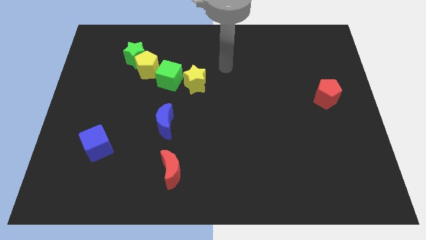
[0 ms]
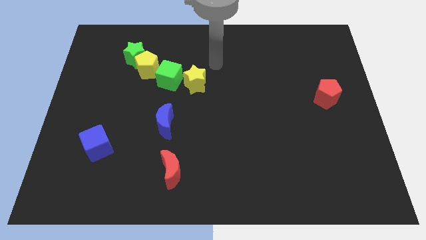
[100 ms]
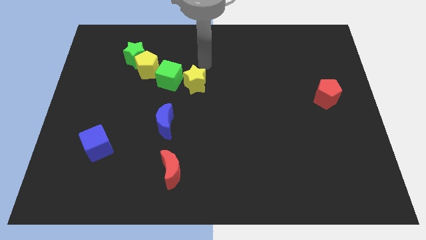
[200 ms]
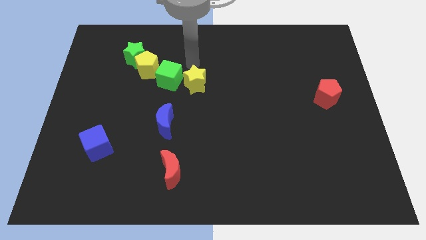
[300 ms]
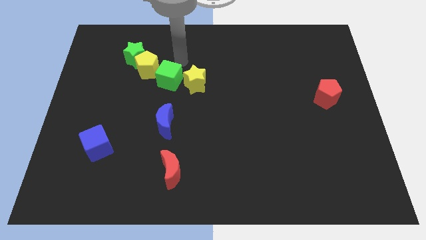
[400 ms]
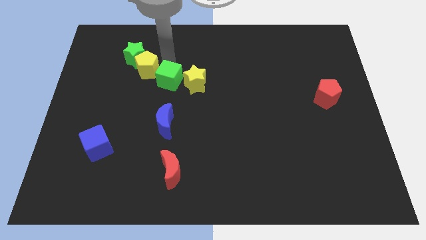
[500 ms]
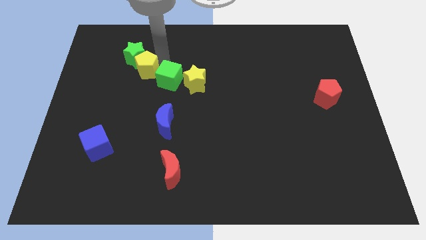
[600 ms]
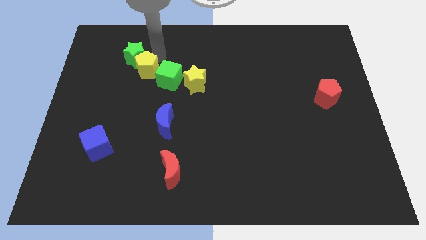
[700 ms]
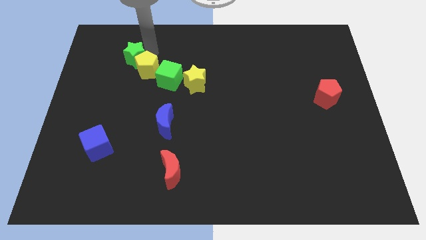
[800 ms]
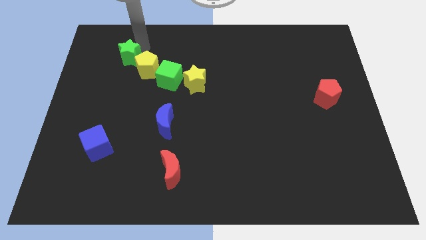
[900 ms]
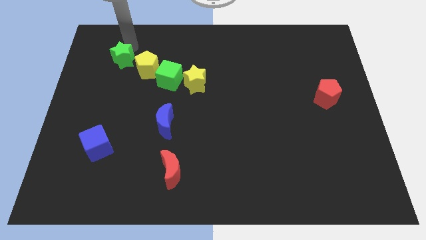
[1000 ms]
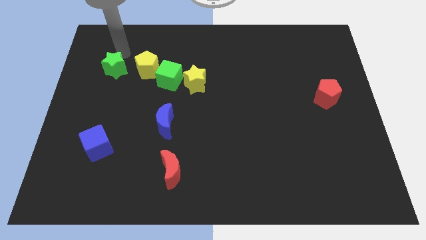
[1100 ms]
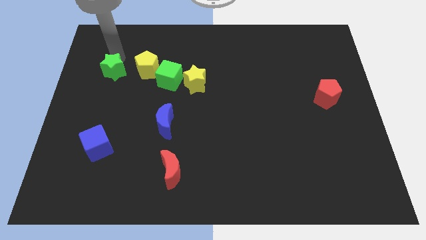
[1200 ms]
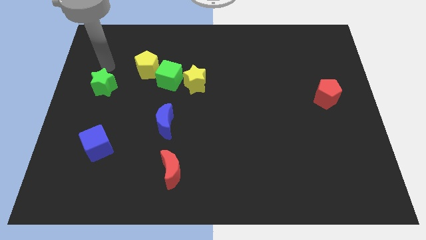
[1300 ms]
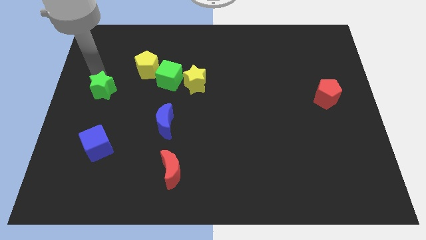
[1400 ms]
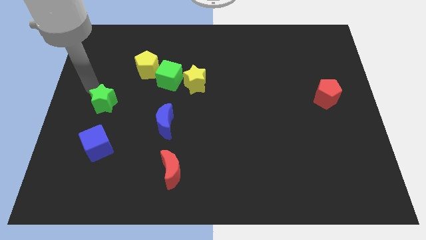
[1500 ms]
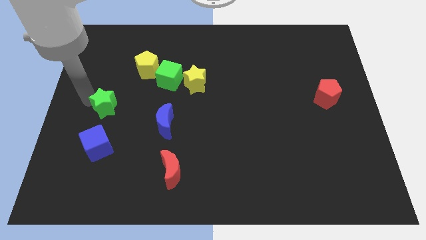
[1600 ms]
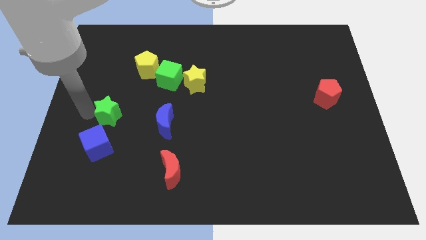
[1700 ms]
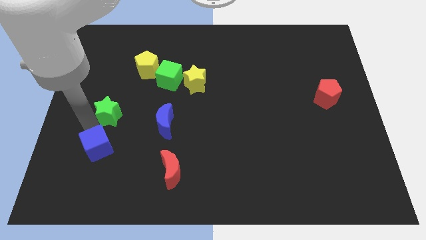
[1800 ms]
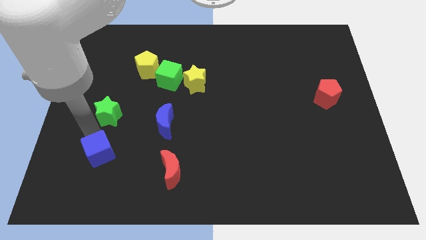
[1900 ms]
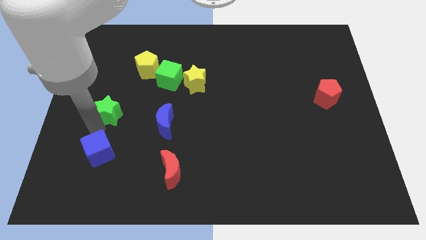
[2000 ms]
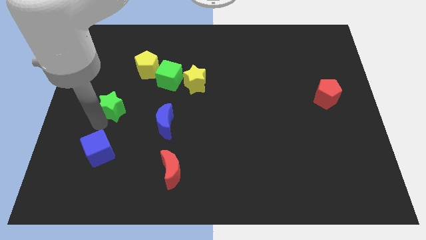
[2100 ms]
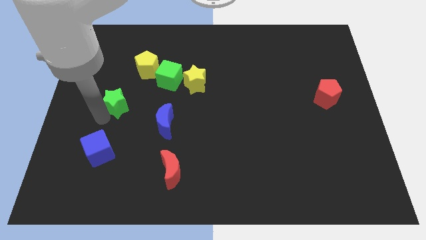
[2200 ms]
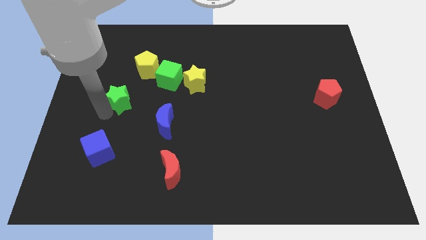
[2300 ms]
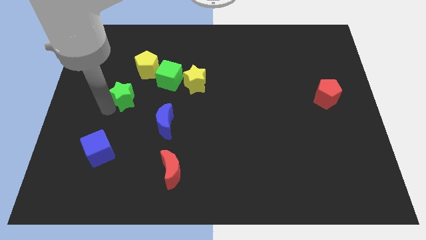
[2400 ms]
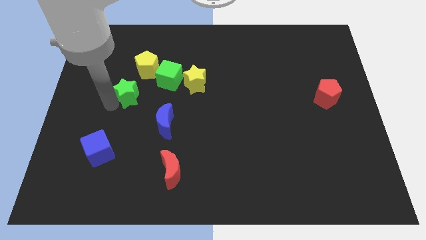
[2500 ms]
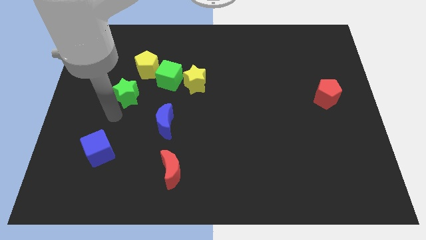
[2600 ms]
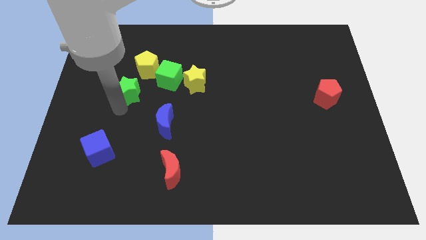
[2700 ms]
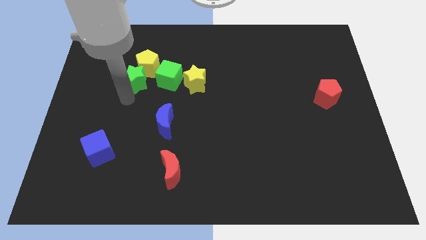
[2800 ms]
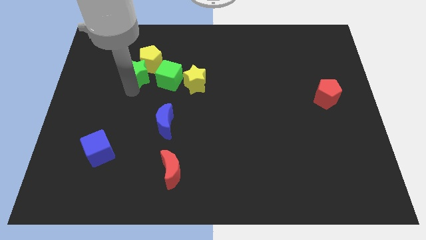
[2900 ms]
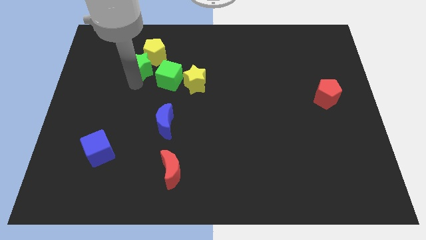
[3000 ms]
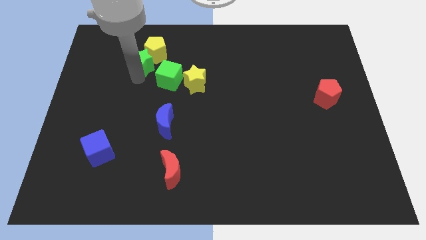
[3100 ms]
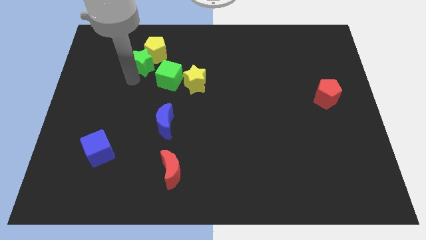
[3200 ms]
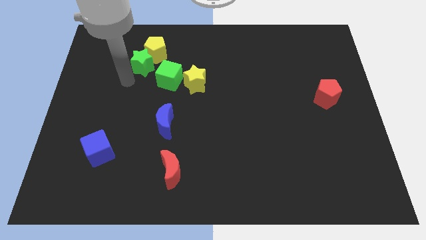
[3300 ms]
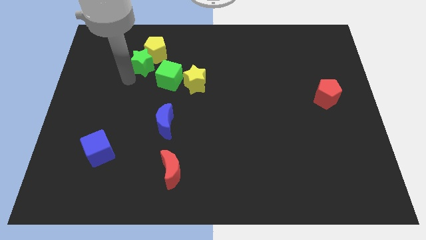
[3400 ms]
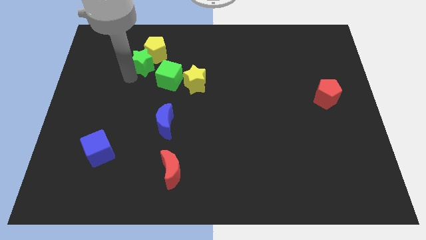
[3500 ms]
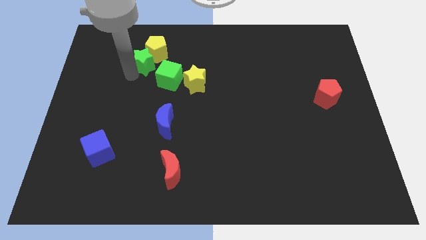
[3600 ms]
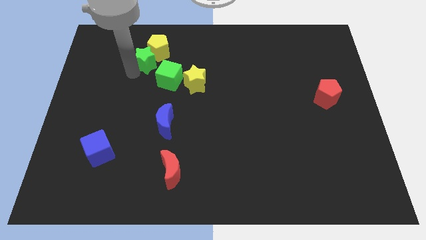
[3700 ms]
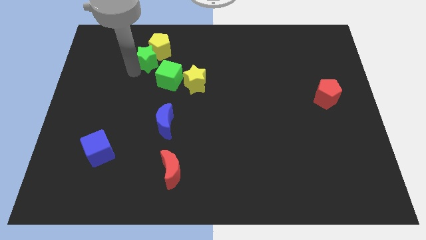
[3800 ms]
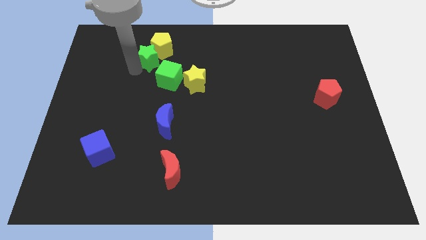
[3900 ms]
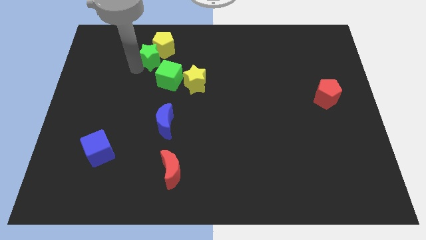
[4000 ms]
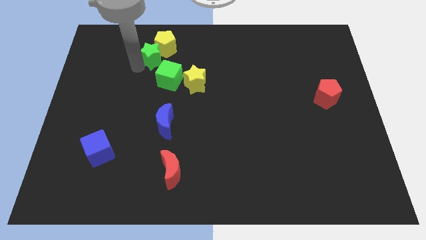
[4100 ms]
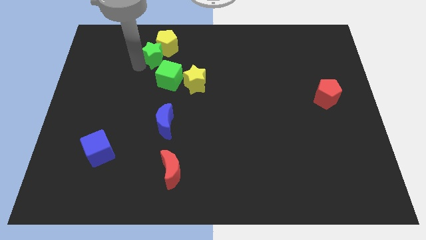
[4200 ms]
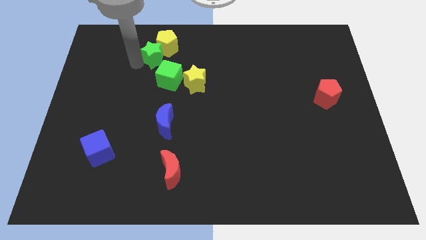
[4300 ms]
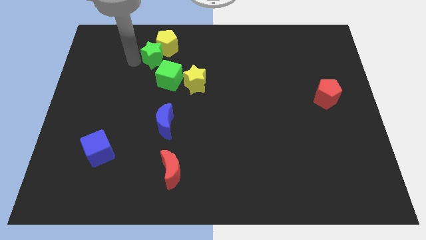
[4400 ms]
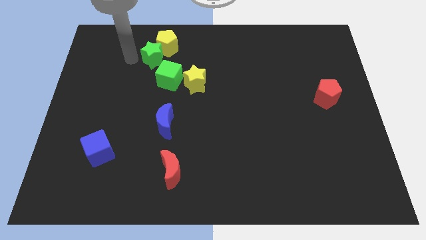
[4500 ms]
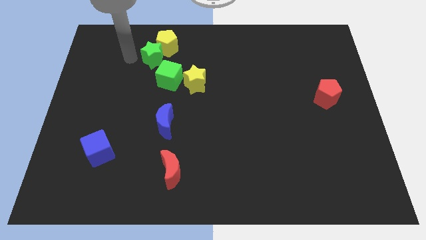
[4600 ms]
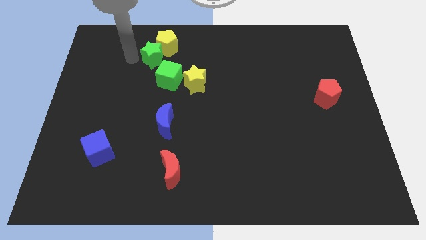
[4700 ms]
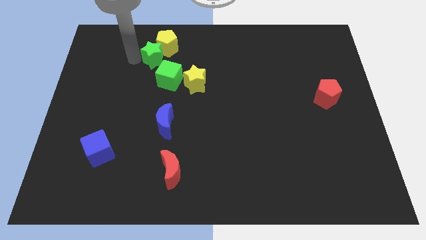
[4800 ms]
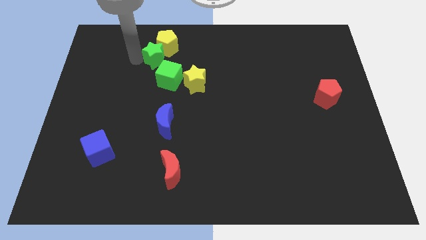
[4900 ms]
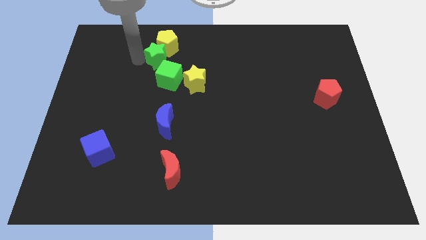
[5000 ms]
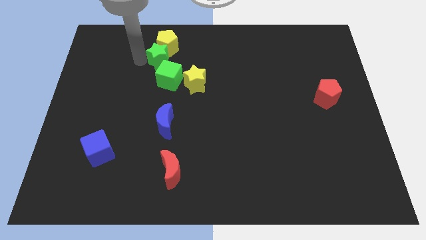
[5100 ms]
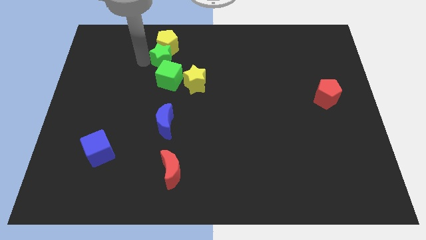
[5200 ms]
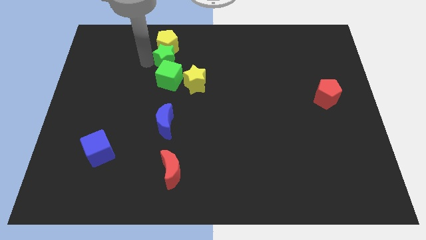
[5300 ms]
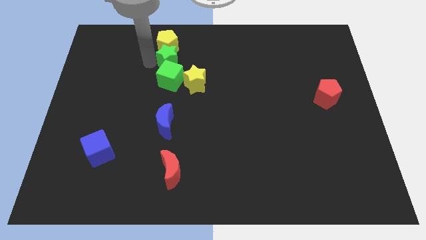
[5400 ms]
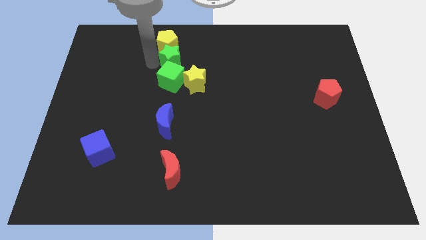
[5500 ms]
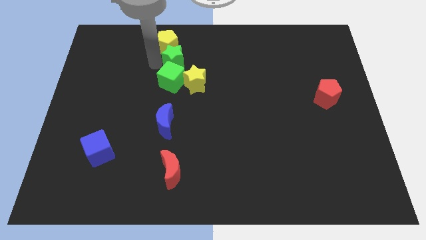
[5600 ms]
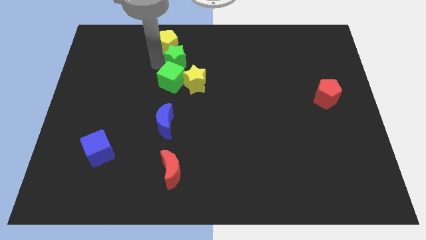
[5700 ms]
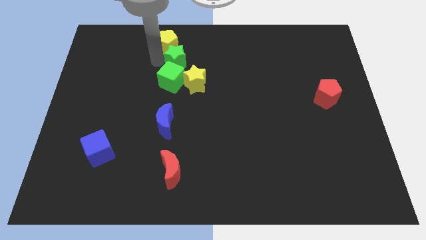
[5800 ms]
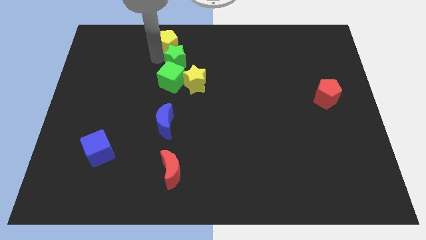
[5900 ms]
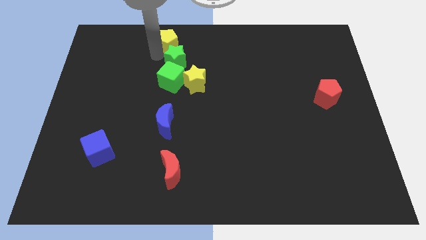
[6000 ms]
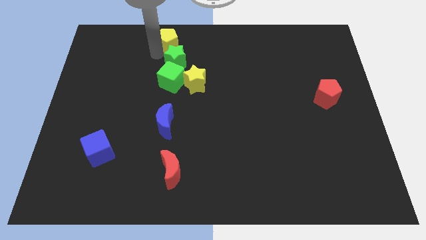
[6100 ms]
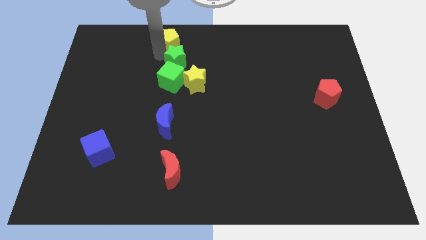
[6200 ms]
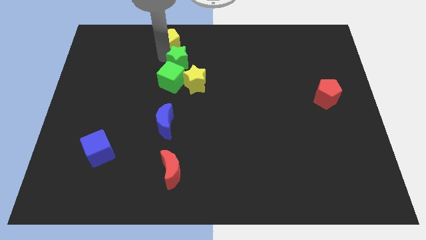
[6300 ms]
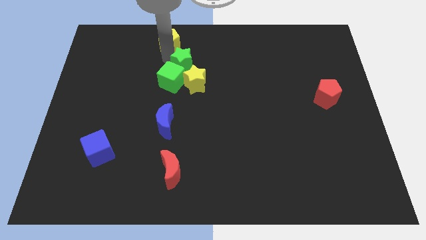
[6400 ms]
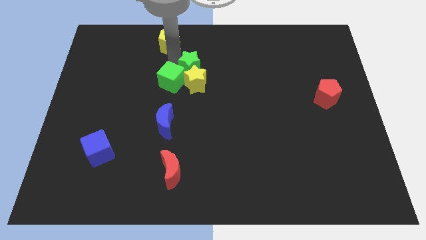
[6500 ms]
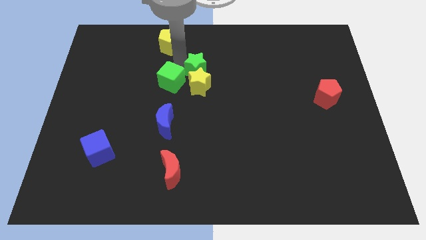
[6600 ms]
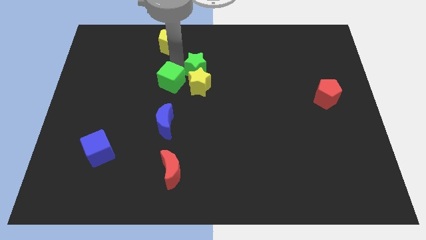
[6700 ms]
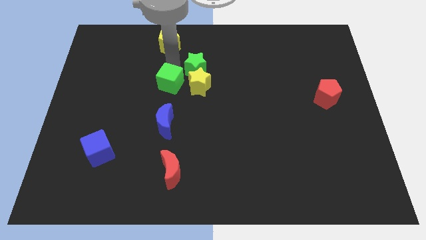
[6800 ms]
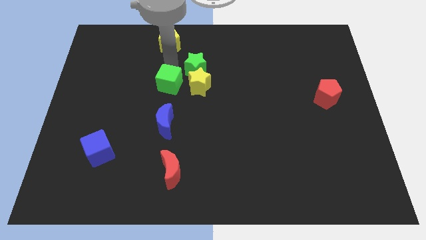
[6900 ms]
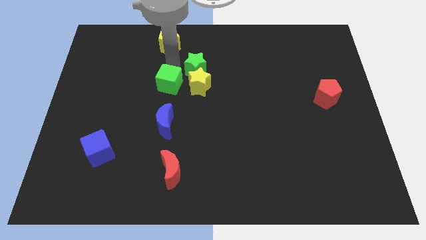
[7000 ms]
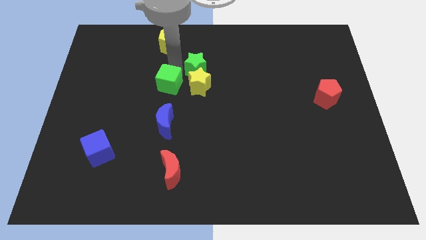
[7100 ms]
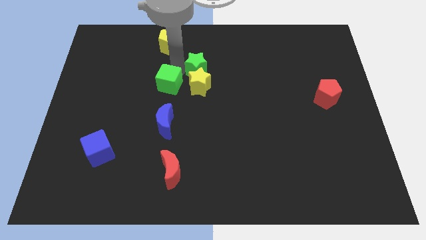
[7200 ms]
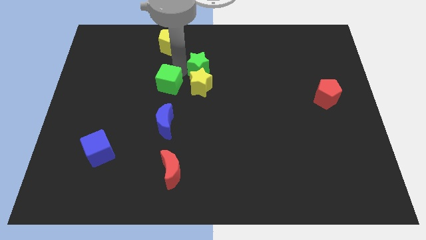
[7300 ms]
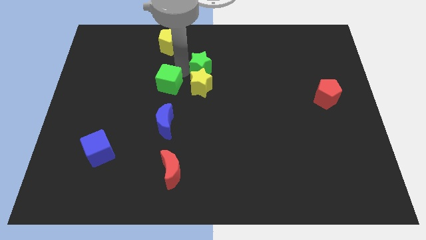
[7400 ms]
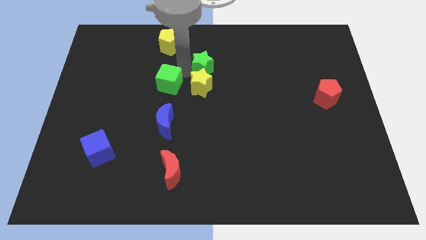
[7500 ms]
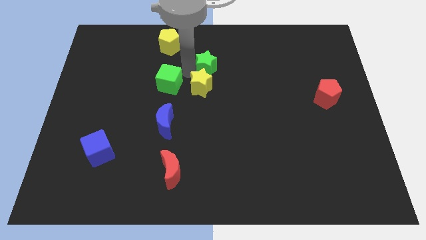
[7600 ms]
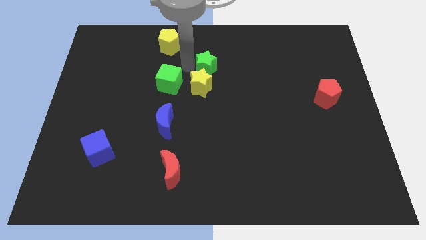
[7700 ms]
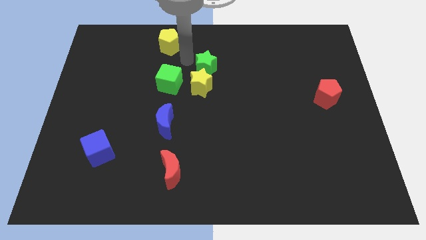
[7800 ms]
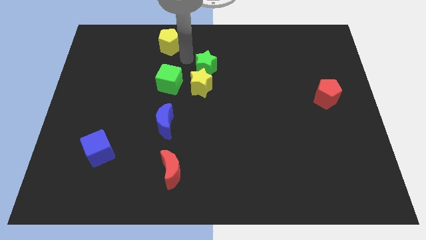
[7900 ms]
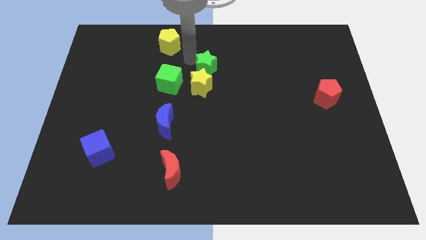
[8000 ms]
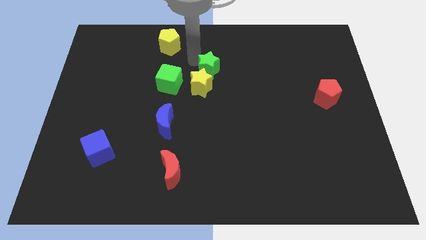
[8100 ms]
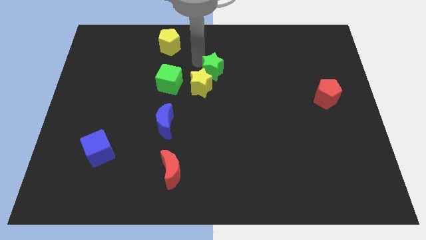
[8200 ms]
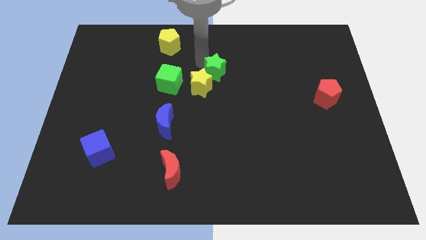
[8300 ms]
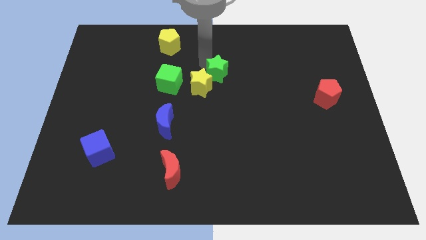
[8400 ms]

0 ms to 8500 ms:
put the green star to the right of the yellow star
